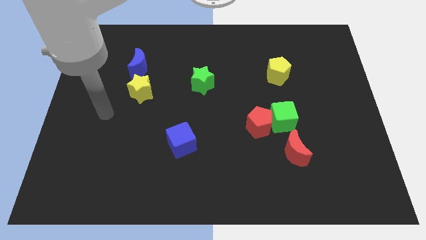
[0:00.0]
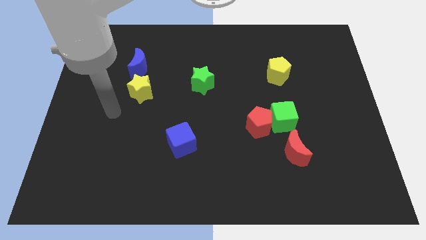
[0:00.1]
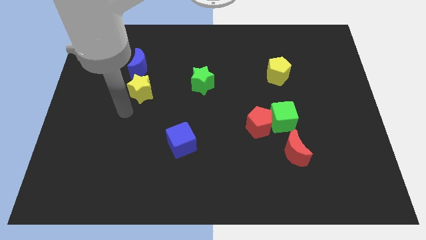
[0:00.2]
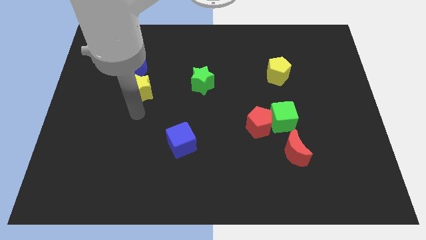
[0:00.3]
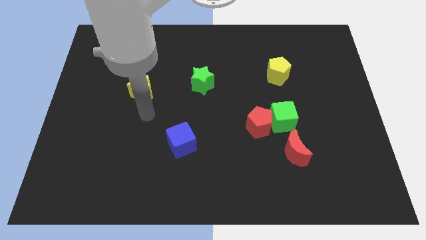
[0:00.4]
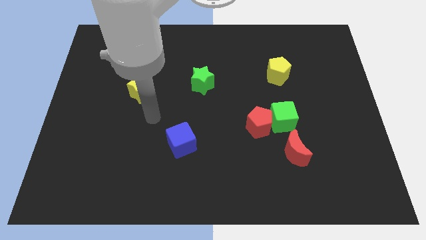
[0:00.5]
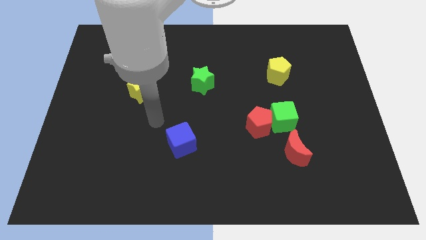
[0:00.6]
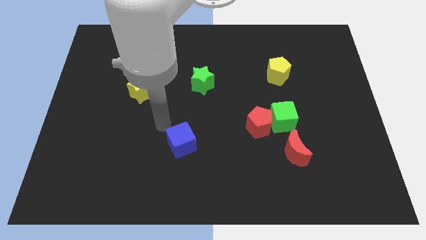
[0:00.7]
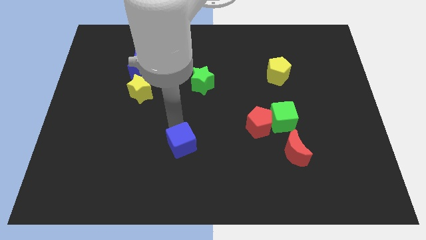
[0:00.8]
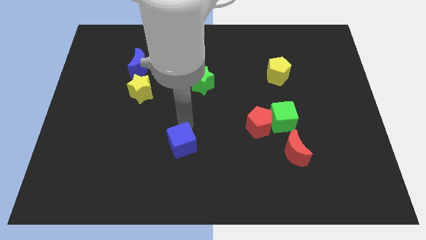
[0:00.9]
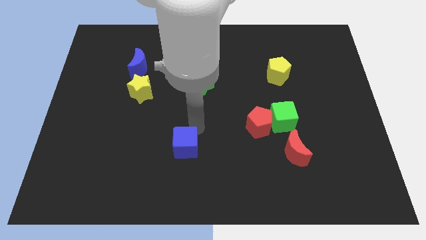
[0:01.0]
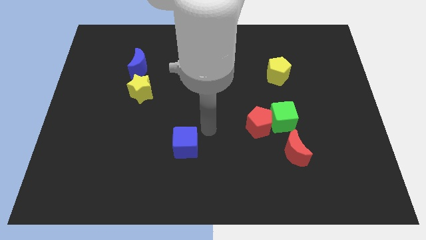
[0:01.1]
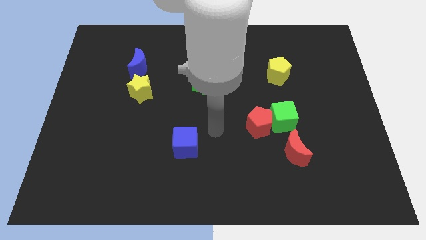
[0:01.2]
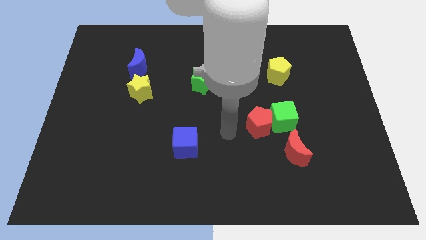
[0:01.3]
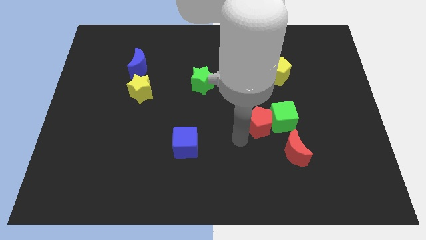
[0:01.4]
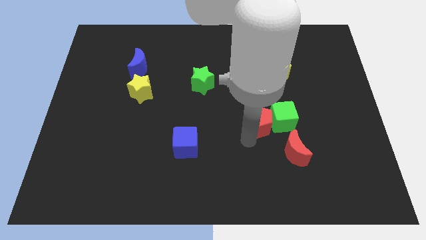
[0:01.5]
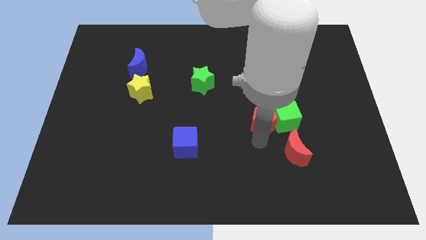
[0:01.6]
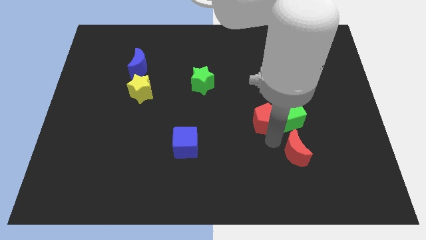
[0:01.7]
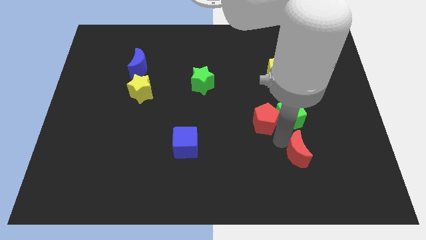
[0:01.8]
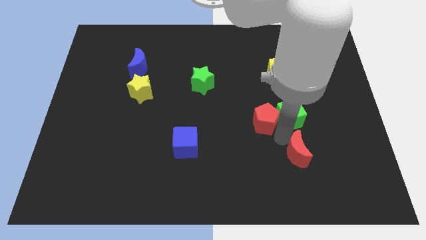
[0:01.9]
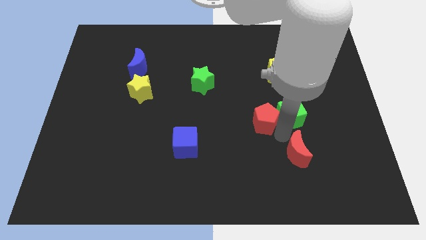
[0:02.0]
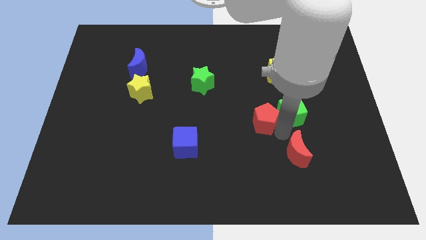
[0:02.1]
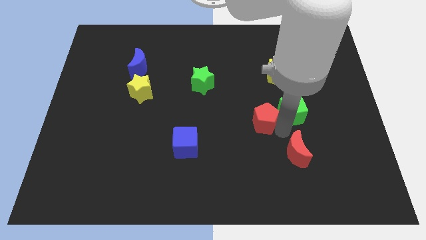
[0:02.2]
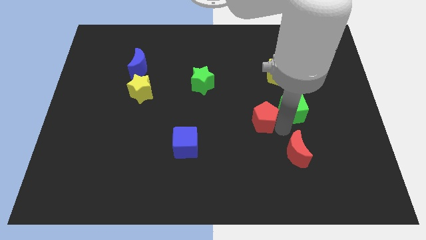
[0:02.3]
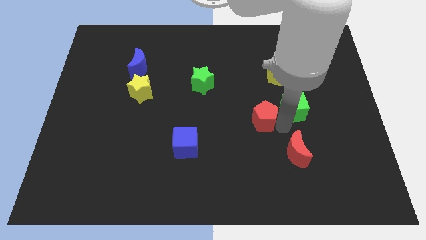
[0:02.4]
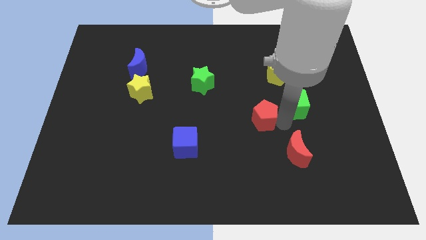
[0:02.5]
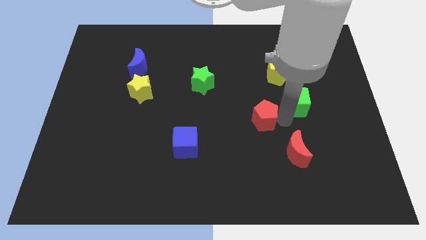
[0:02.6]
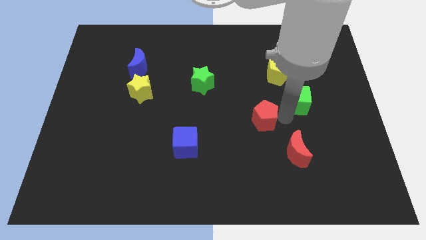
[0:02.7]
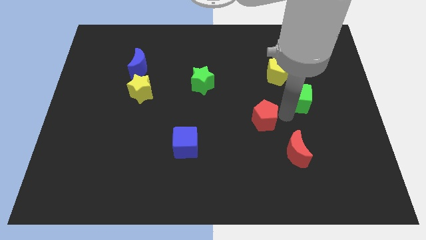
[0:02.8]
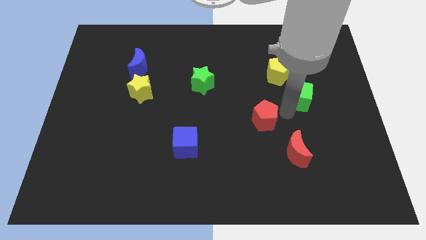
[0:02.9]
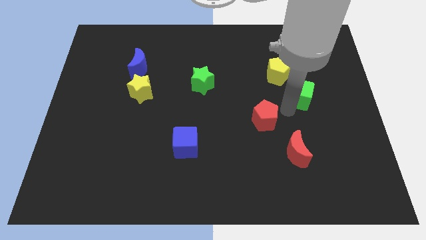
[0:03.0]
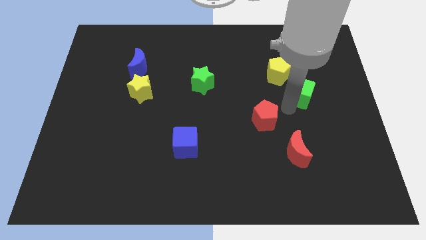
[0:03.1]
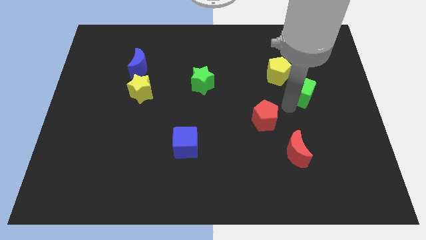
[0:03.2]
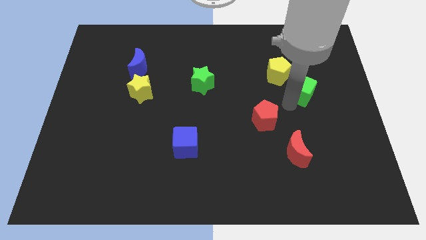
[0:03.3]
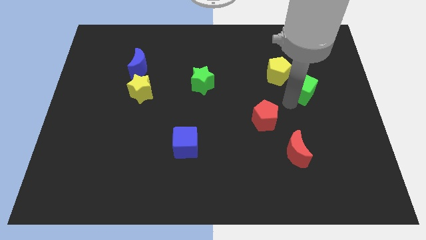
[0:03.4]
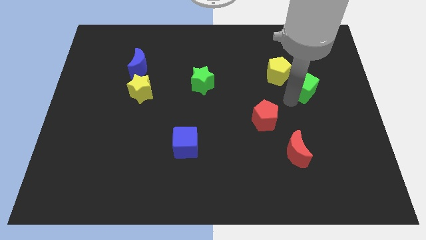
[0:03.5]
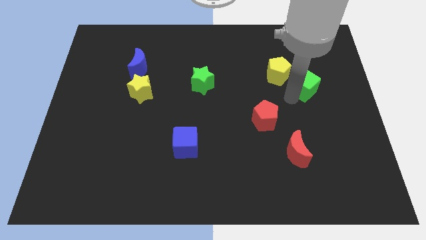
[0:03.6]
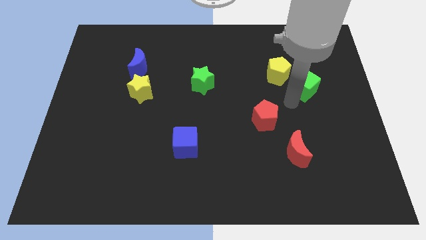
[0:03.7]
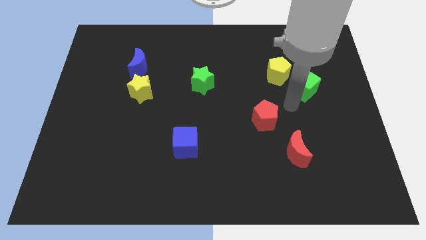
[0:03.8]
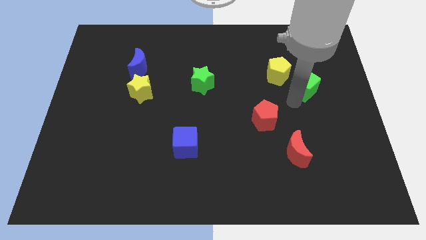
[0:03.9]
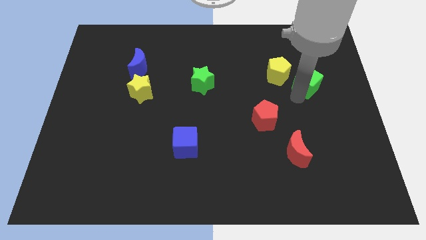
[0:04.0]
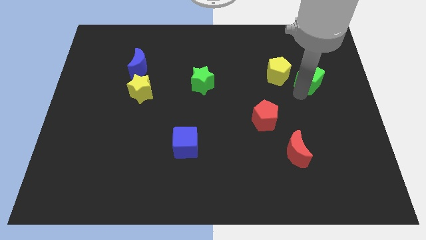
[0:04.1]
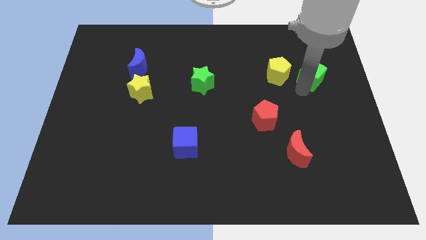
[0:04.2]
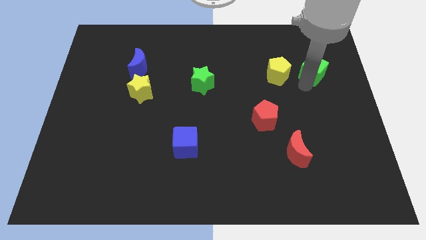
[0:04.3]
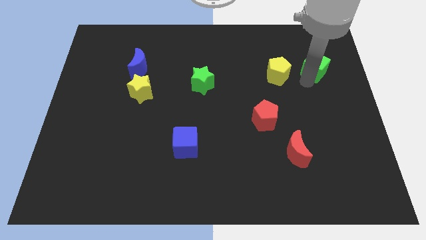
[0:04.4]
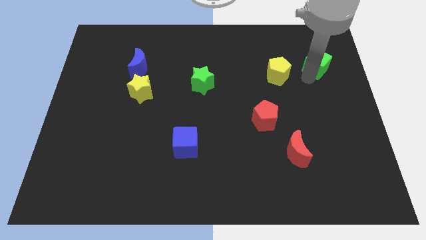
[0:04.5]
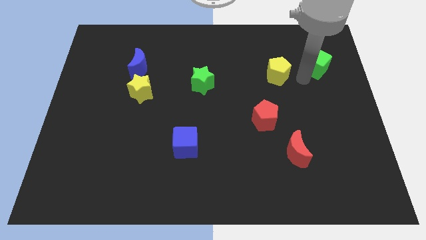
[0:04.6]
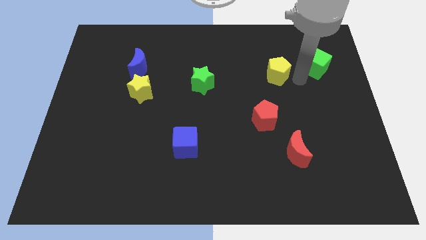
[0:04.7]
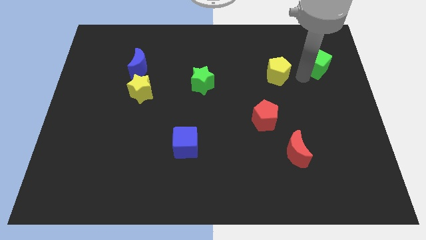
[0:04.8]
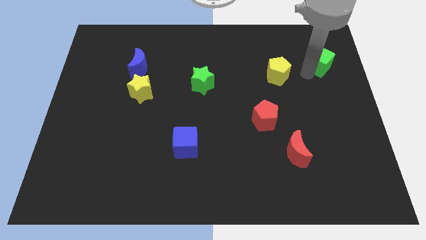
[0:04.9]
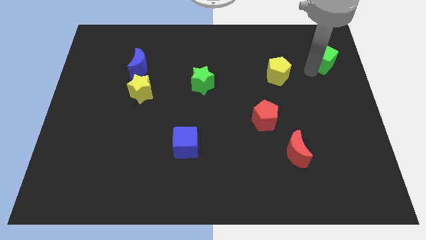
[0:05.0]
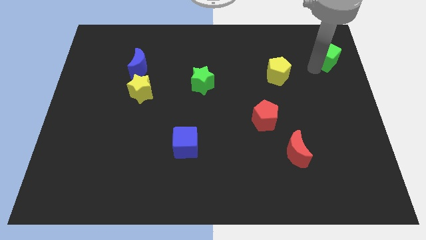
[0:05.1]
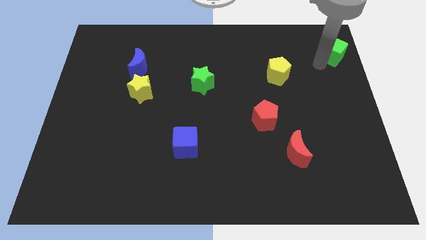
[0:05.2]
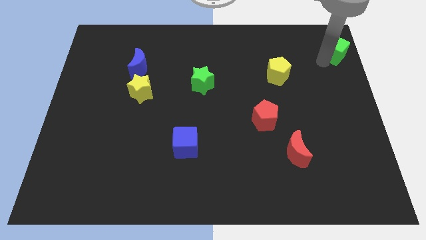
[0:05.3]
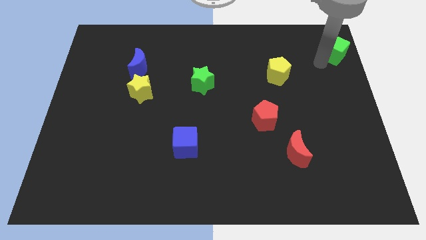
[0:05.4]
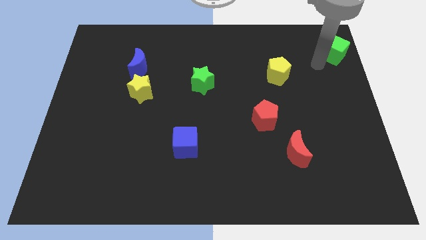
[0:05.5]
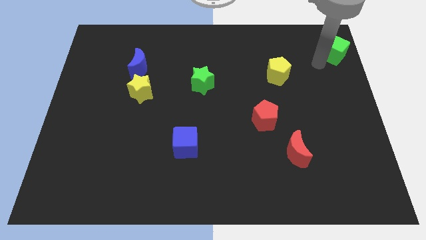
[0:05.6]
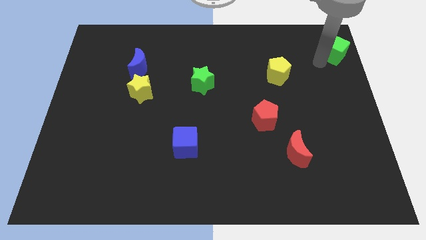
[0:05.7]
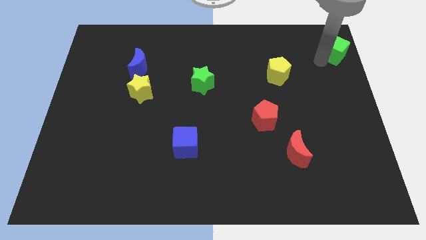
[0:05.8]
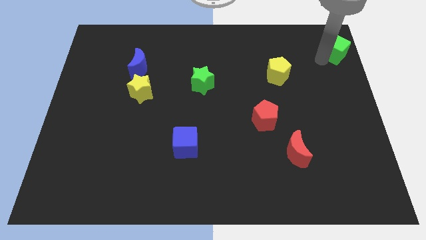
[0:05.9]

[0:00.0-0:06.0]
push the green cube to the upper right corner
